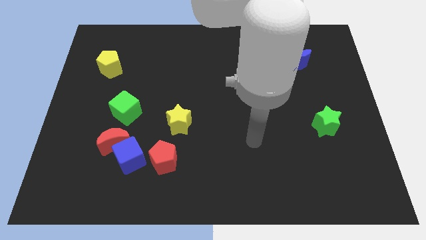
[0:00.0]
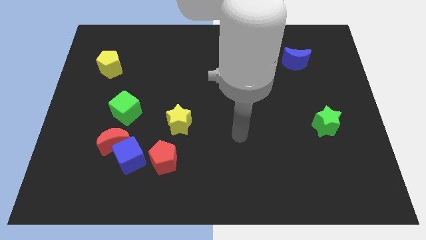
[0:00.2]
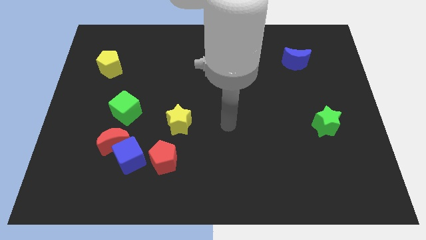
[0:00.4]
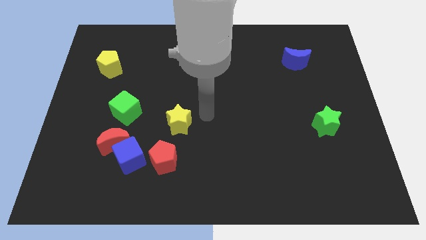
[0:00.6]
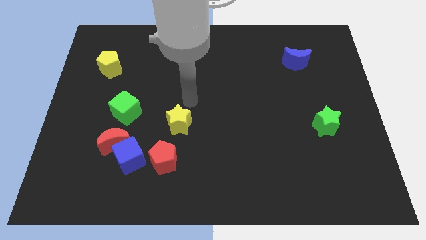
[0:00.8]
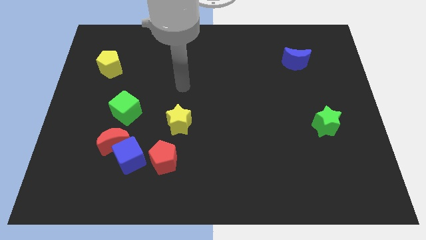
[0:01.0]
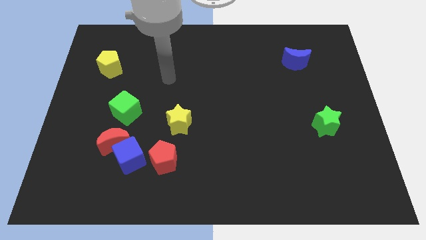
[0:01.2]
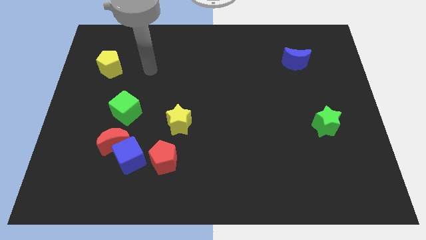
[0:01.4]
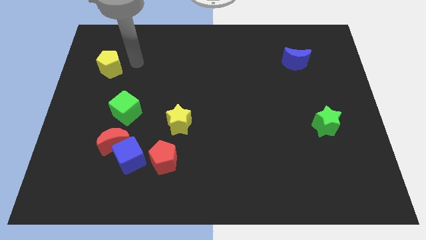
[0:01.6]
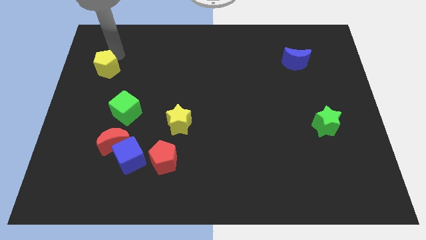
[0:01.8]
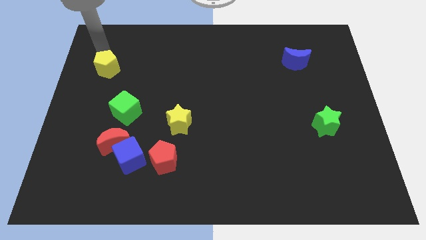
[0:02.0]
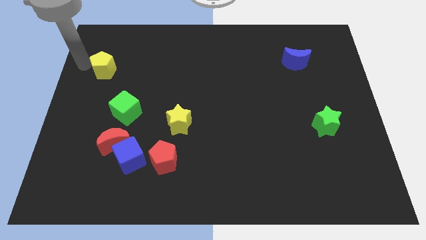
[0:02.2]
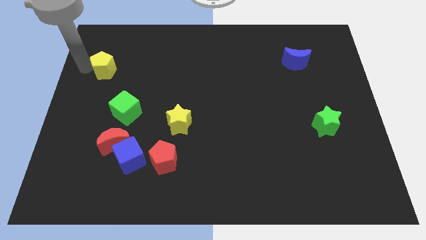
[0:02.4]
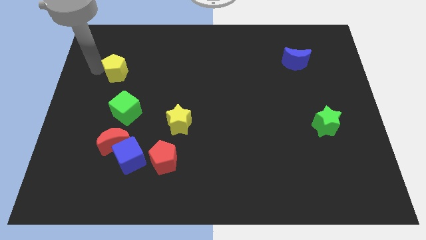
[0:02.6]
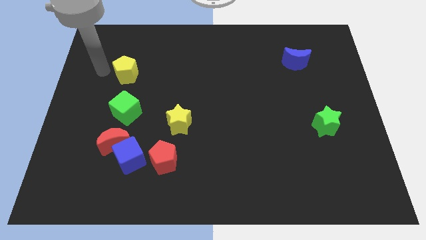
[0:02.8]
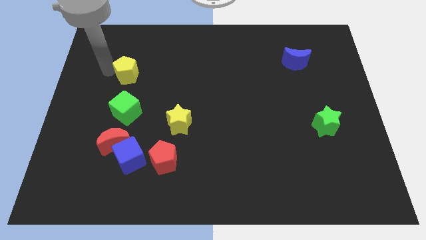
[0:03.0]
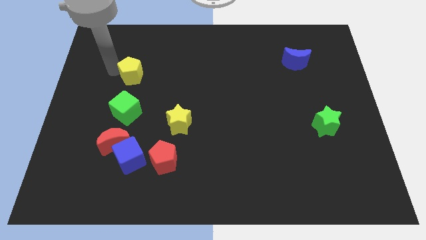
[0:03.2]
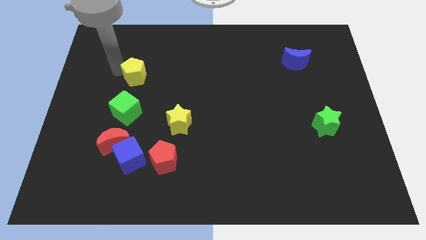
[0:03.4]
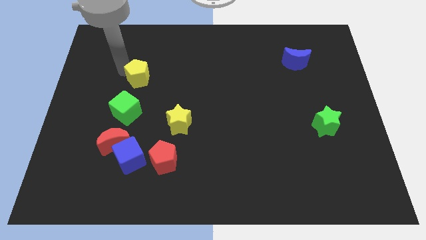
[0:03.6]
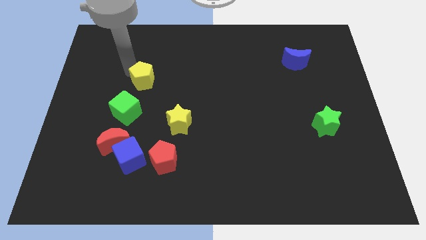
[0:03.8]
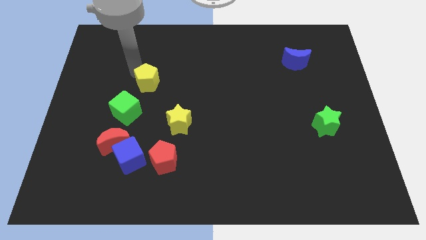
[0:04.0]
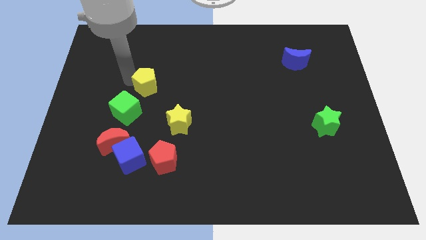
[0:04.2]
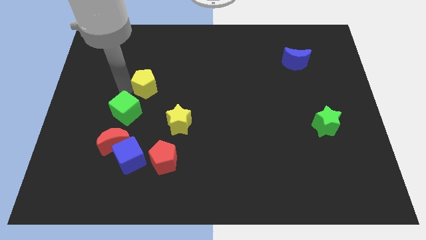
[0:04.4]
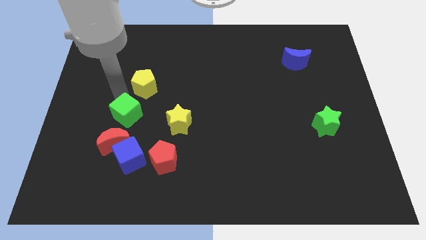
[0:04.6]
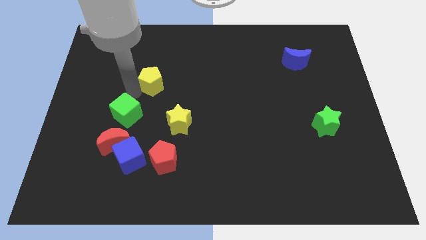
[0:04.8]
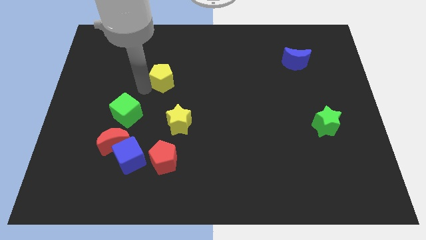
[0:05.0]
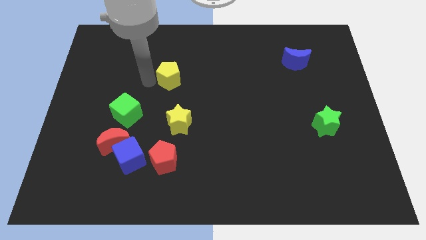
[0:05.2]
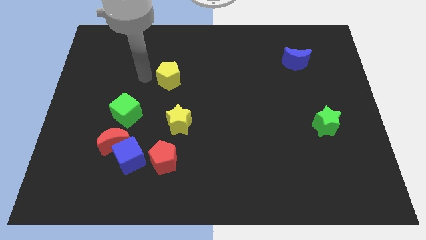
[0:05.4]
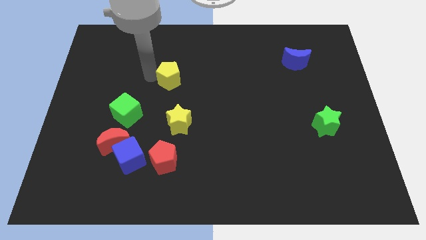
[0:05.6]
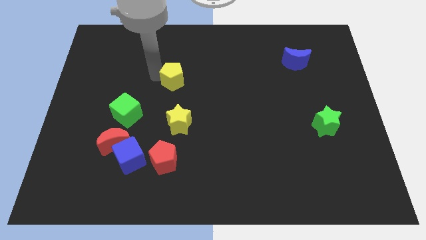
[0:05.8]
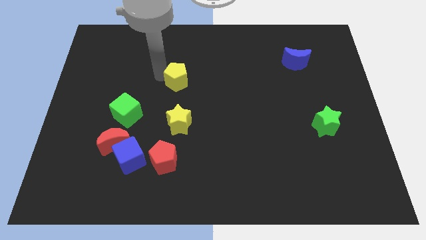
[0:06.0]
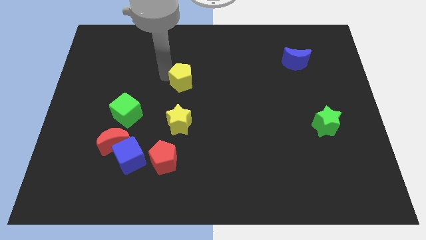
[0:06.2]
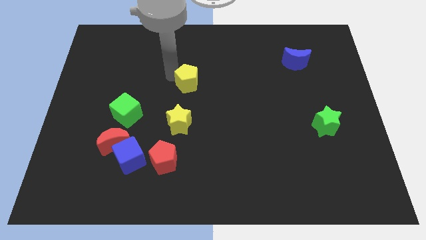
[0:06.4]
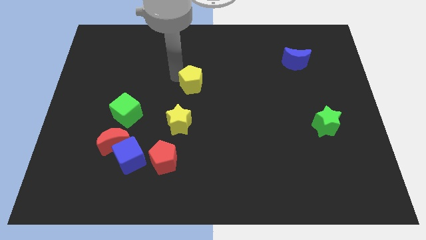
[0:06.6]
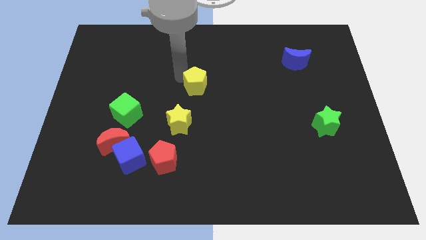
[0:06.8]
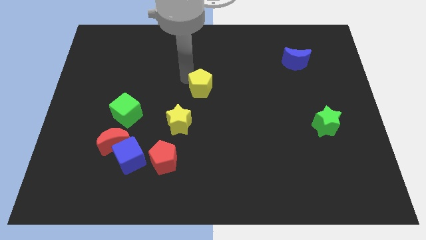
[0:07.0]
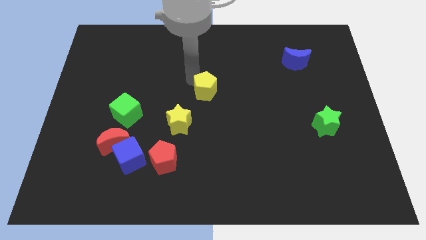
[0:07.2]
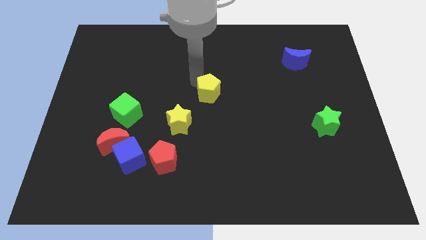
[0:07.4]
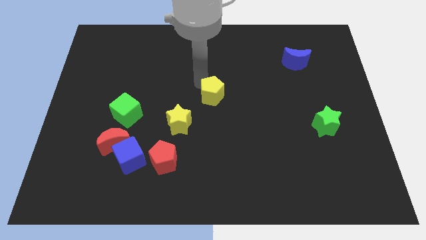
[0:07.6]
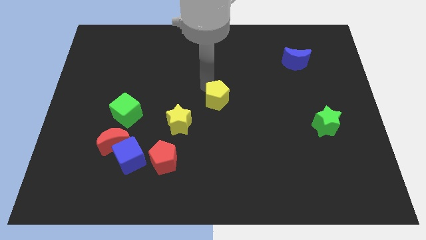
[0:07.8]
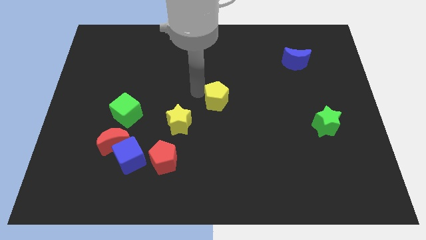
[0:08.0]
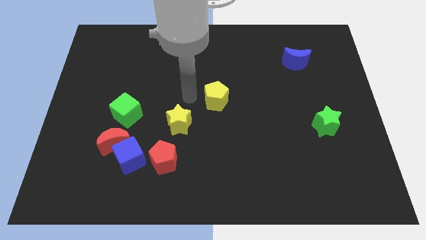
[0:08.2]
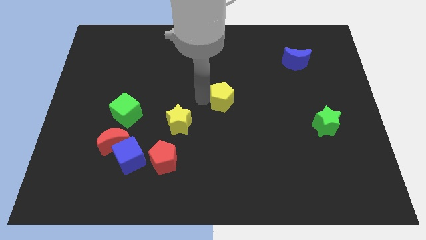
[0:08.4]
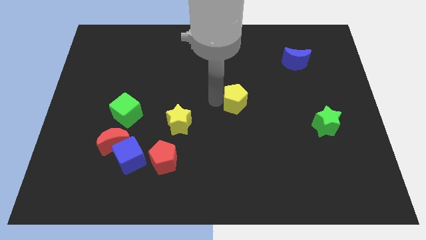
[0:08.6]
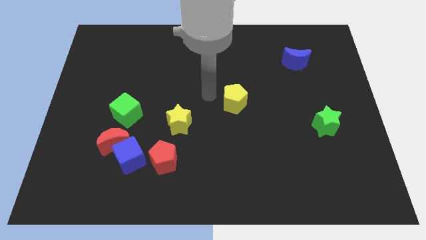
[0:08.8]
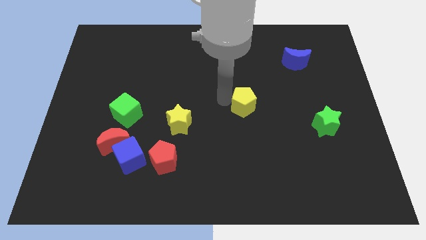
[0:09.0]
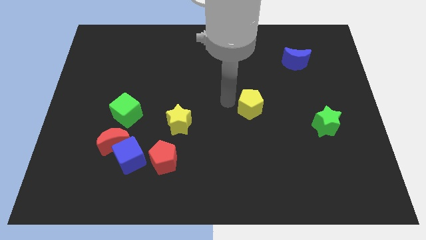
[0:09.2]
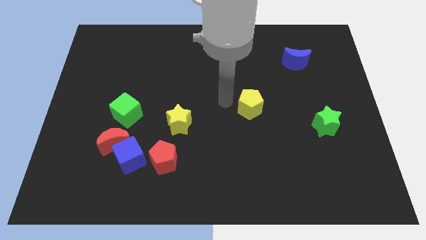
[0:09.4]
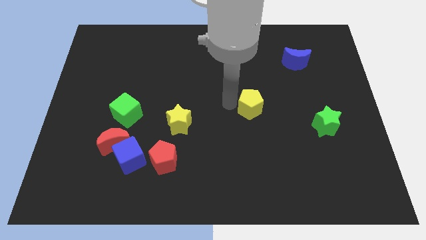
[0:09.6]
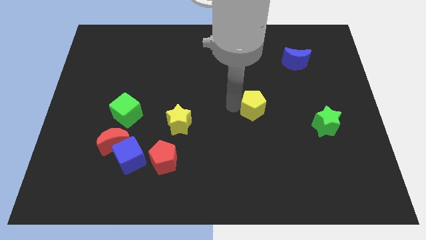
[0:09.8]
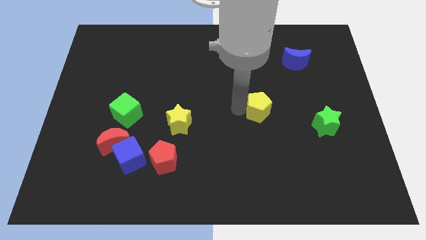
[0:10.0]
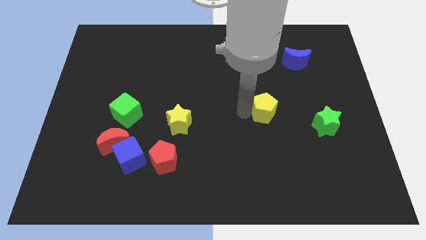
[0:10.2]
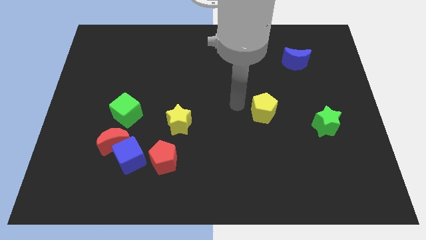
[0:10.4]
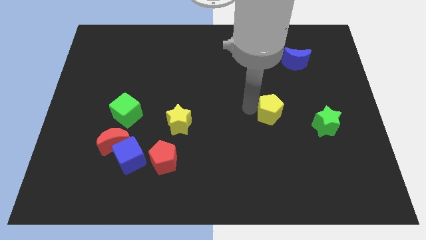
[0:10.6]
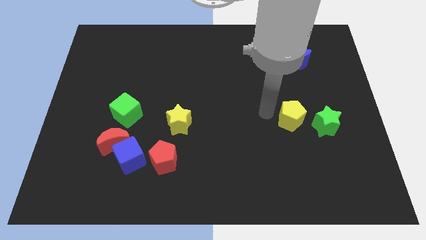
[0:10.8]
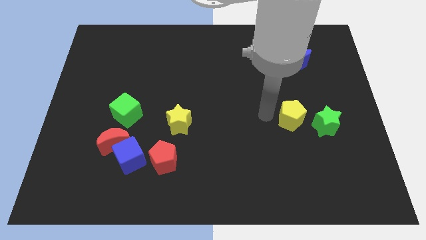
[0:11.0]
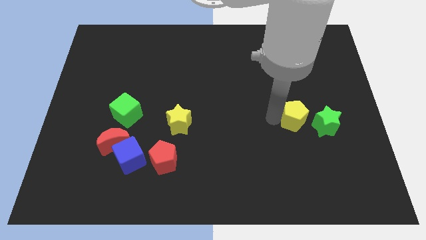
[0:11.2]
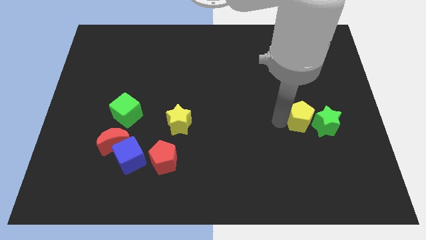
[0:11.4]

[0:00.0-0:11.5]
slide the yellow pentagon towards the green star

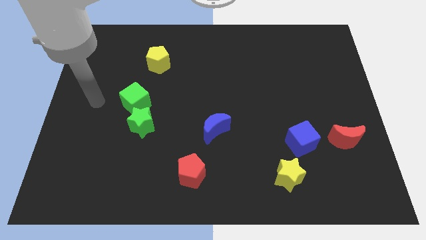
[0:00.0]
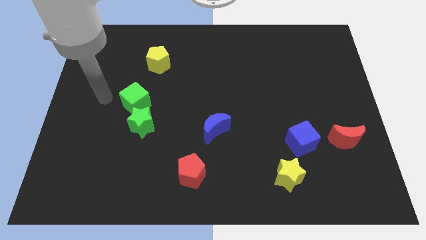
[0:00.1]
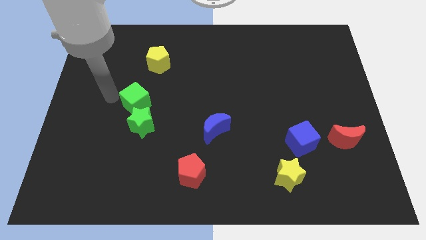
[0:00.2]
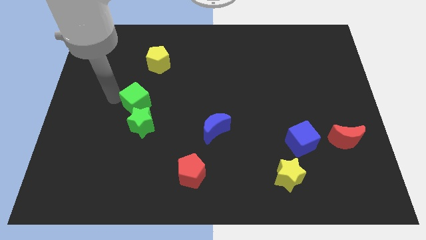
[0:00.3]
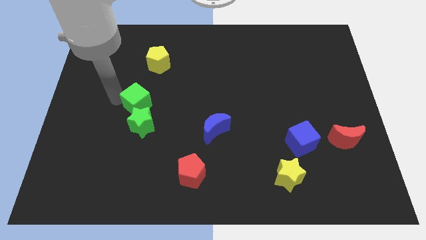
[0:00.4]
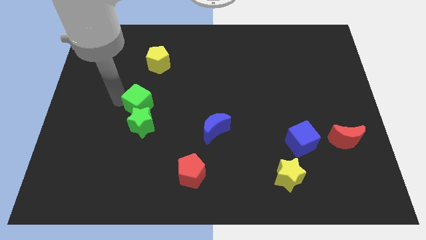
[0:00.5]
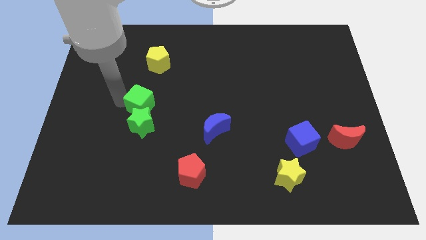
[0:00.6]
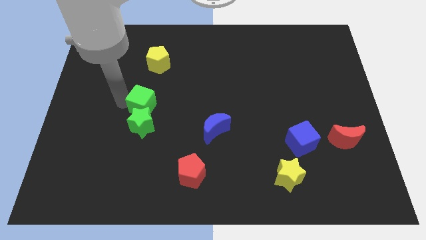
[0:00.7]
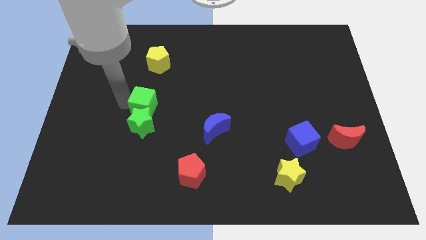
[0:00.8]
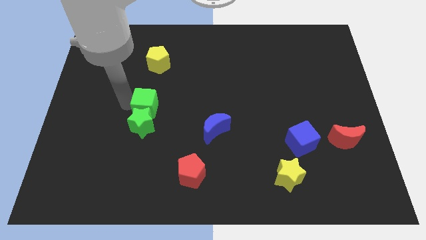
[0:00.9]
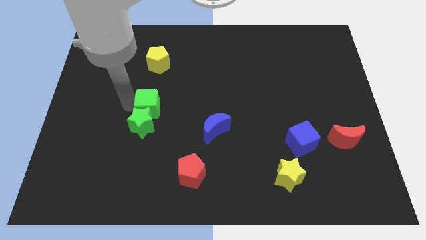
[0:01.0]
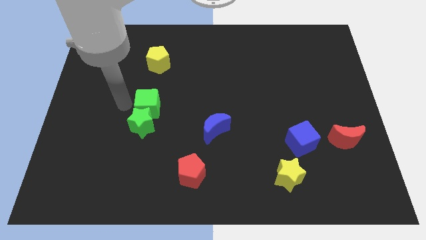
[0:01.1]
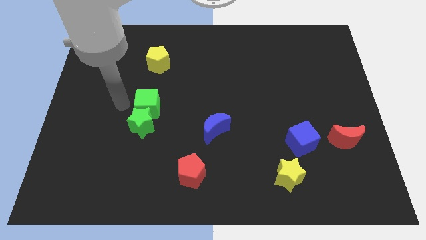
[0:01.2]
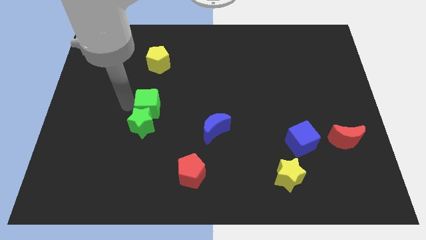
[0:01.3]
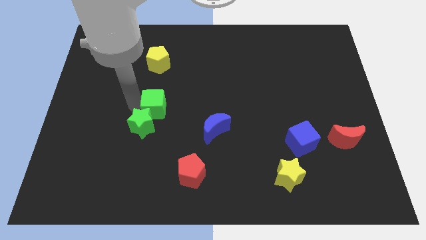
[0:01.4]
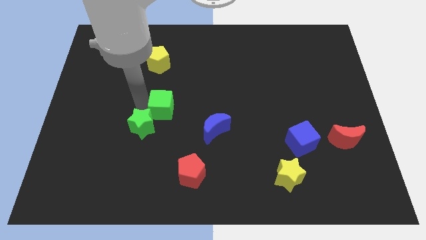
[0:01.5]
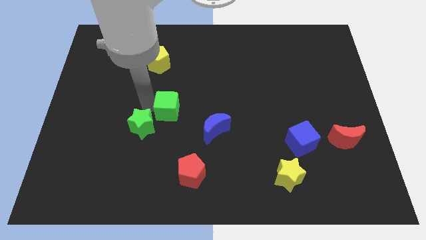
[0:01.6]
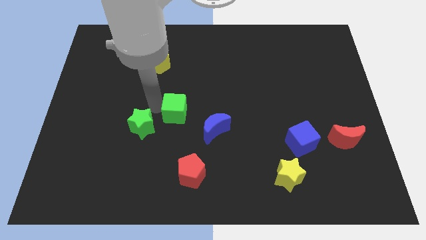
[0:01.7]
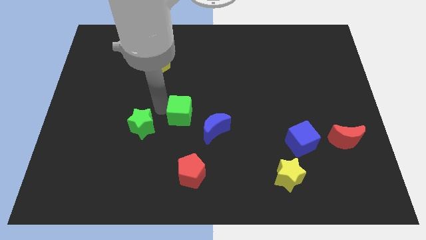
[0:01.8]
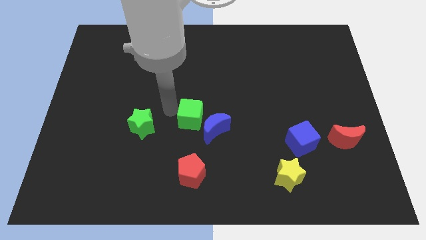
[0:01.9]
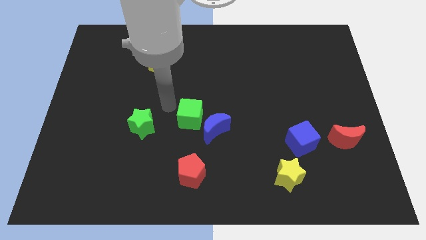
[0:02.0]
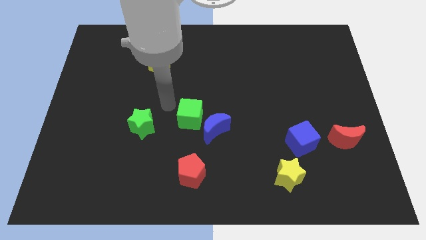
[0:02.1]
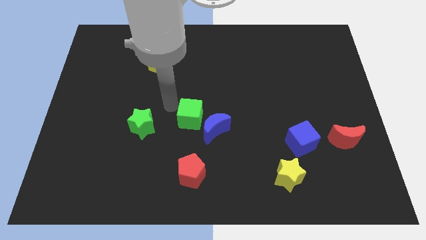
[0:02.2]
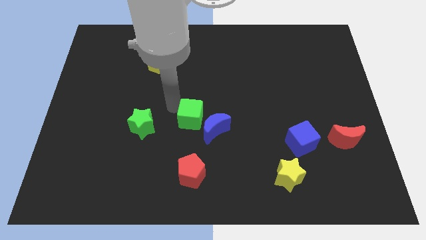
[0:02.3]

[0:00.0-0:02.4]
move the green cube towards the blue moon
